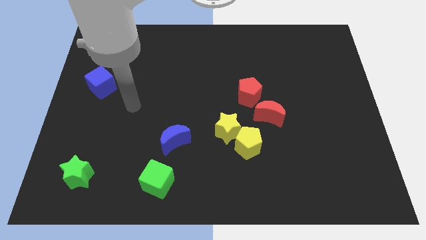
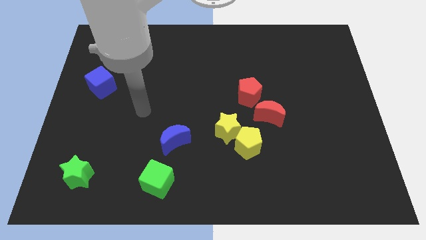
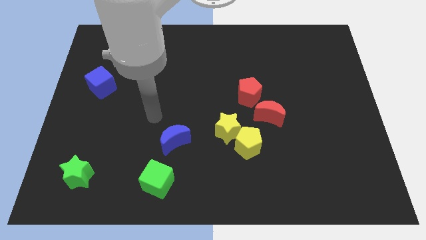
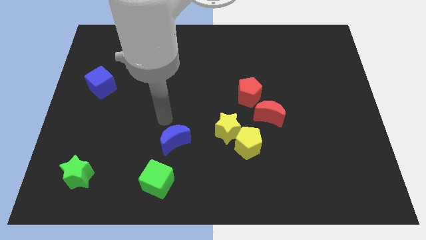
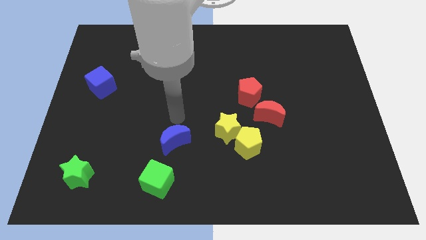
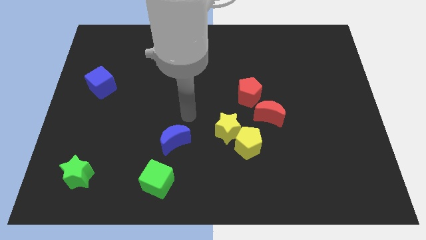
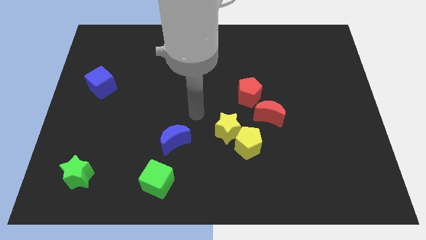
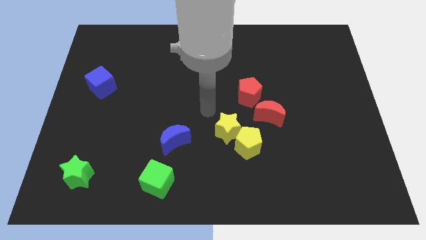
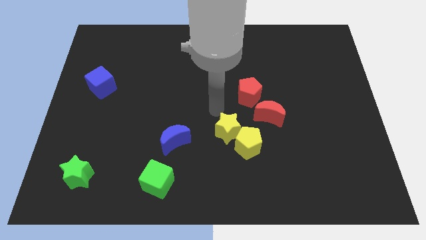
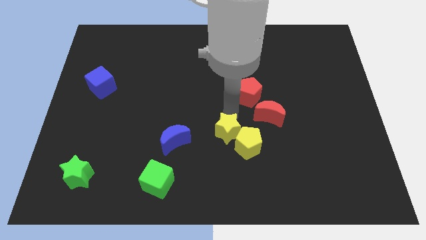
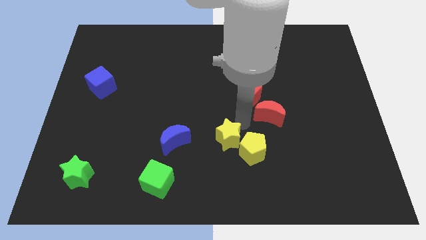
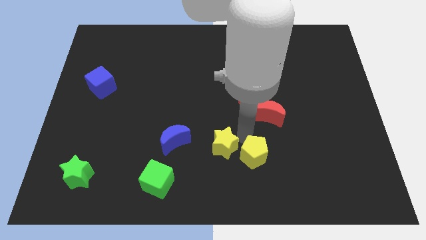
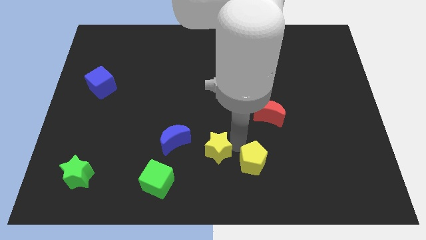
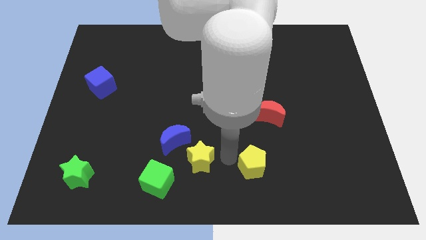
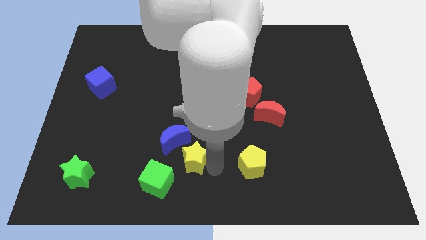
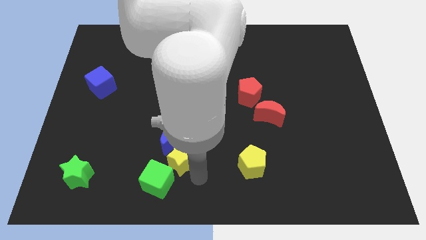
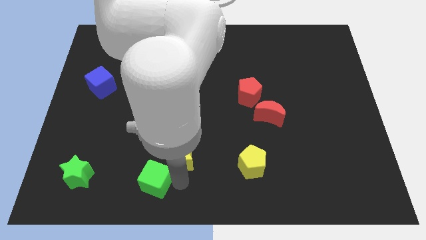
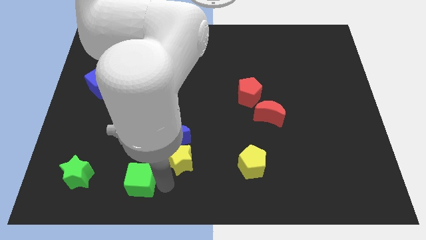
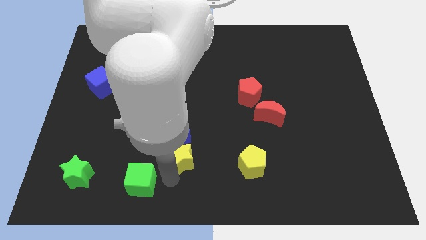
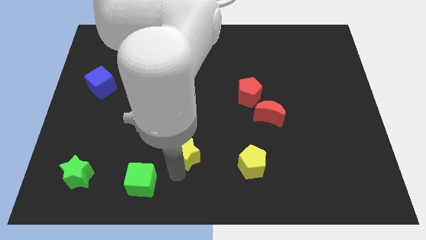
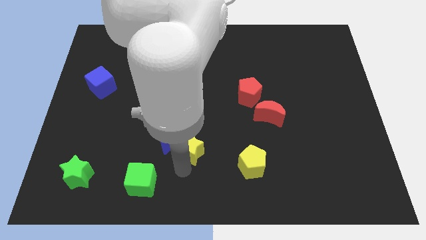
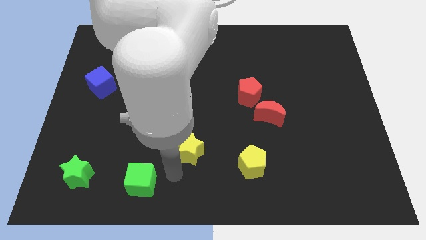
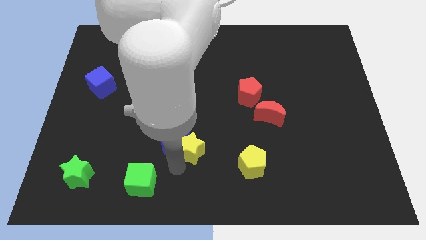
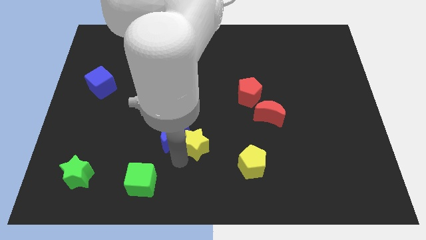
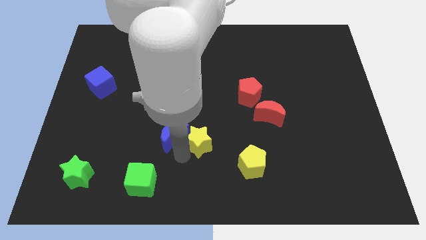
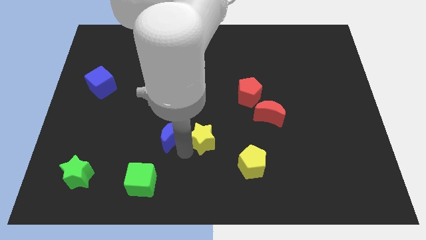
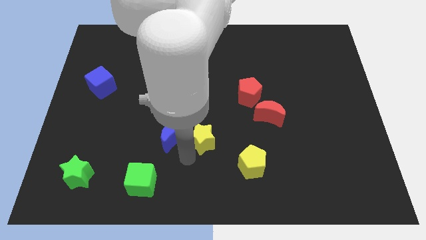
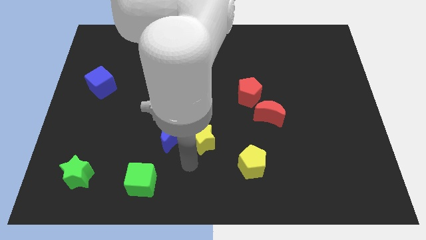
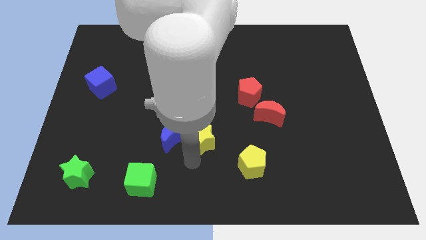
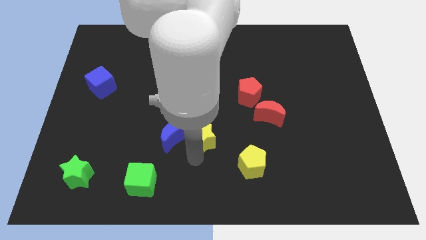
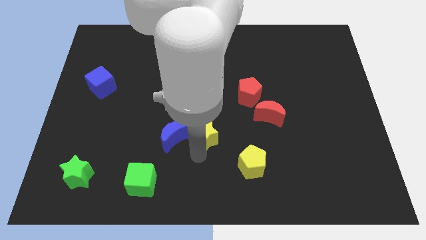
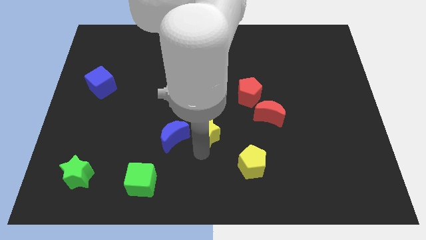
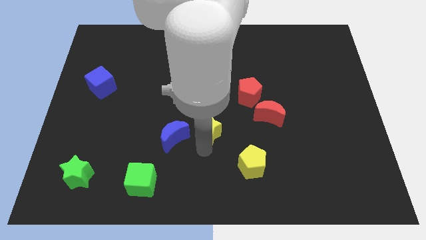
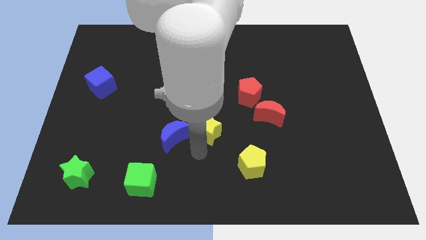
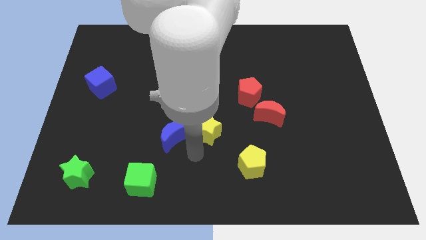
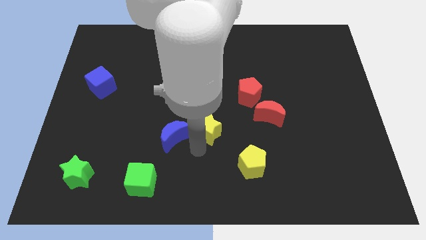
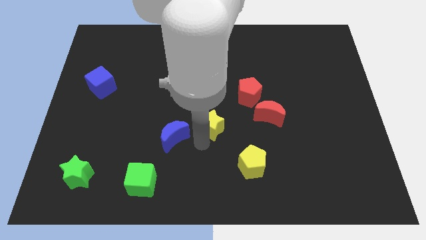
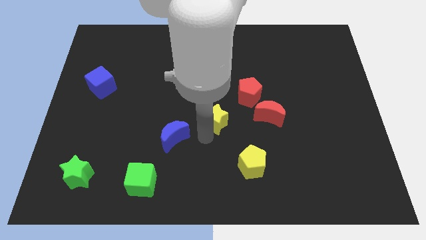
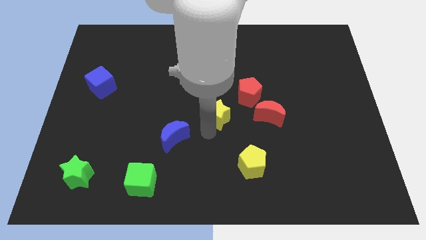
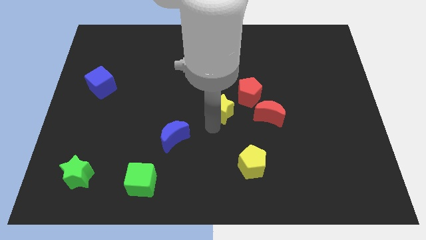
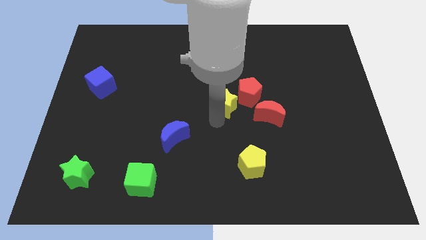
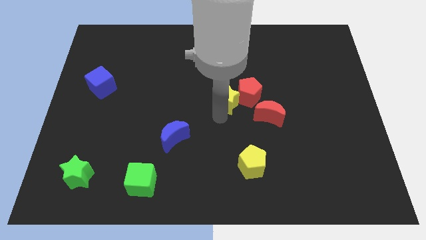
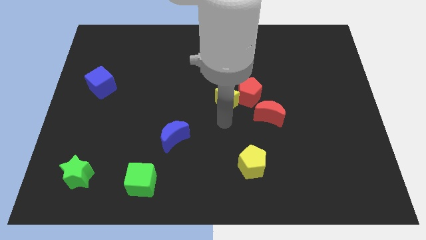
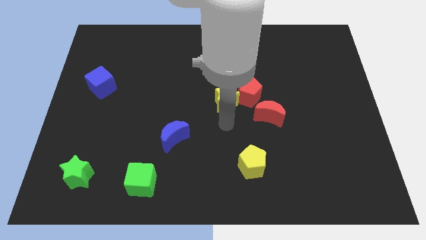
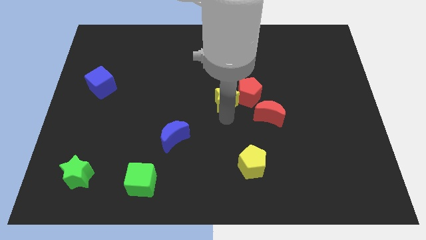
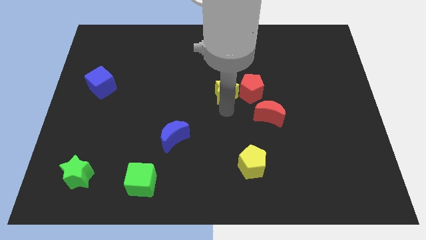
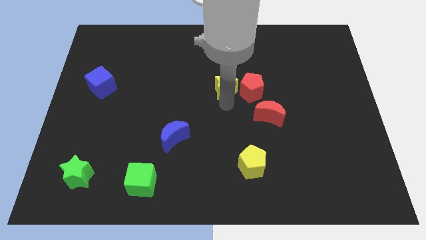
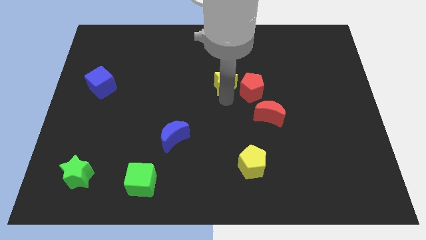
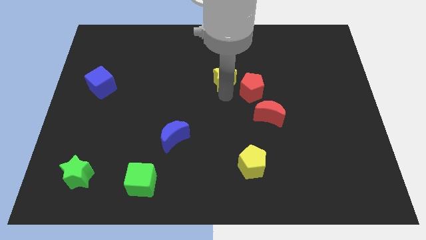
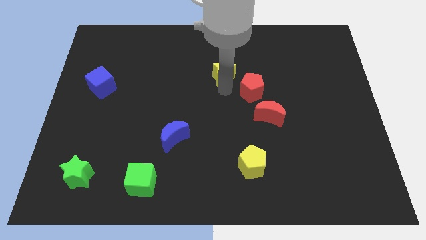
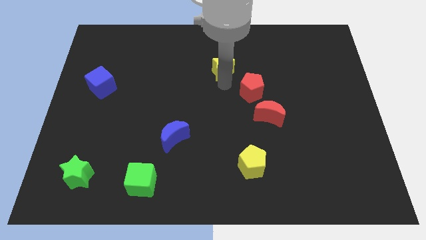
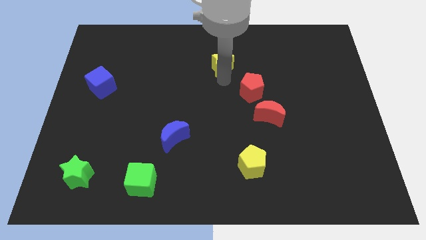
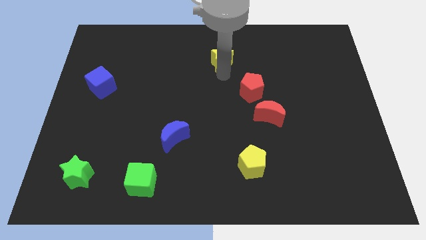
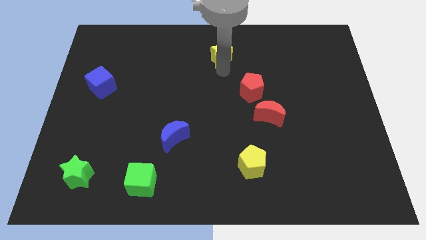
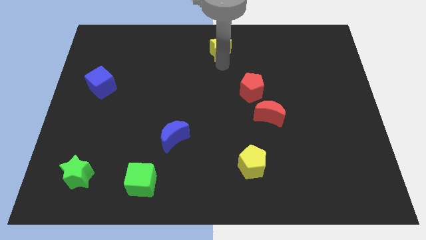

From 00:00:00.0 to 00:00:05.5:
move the yellow star to the towards your base

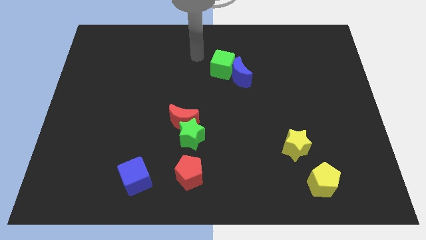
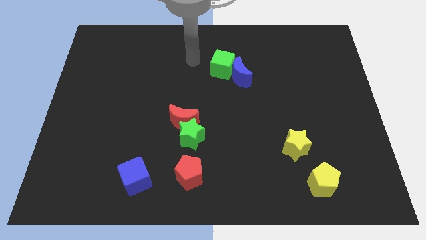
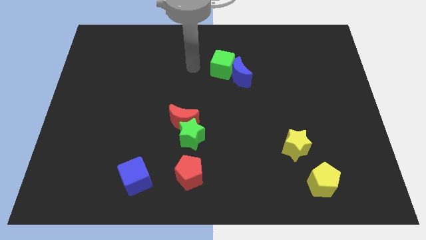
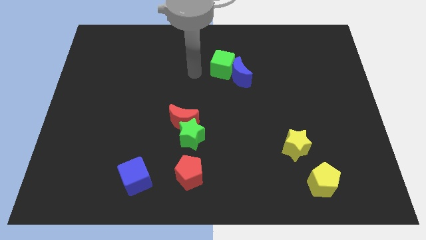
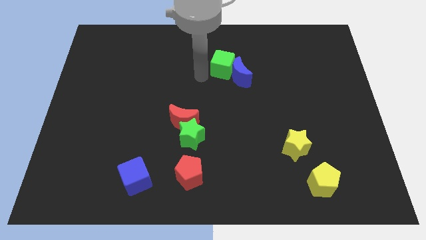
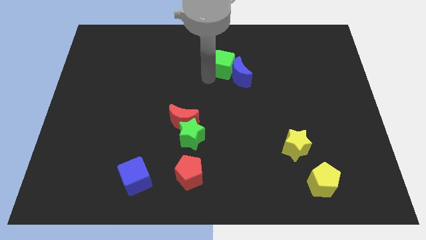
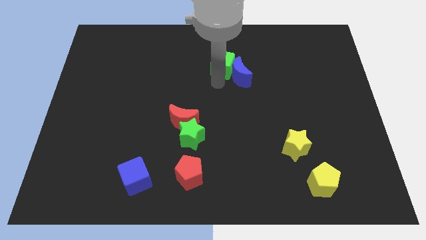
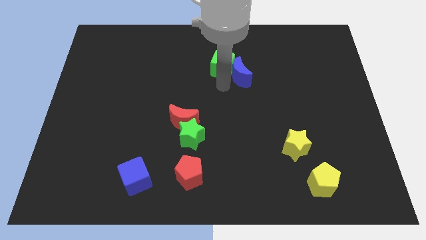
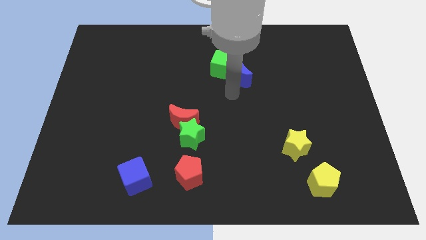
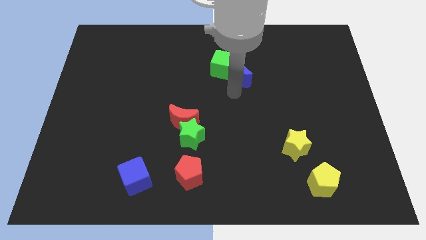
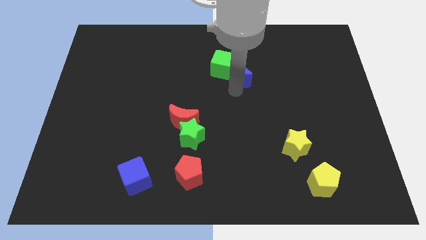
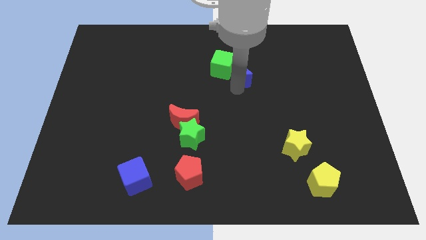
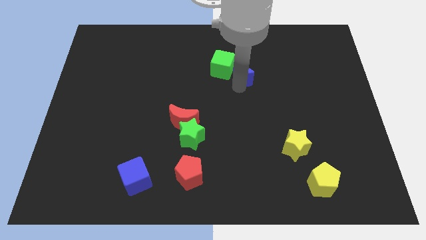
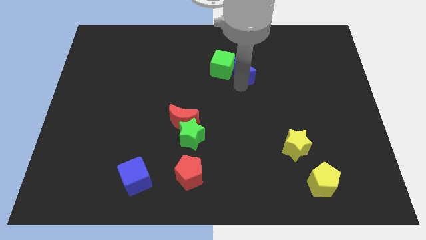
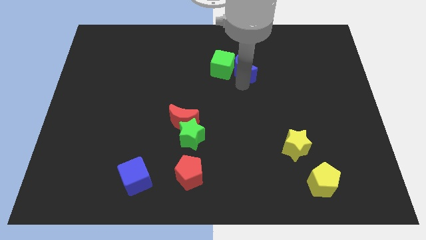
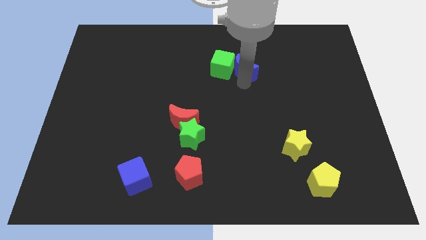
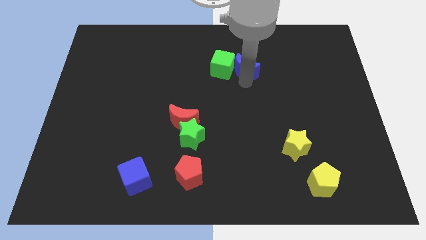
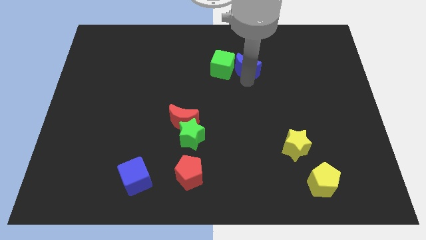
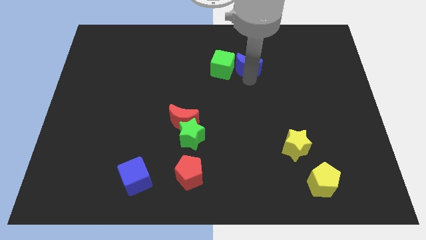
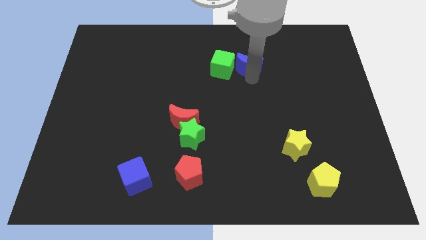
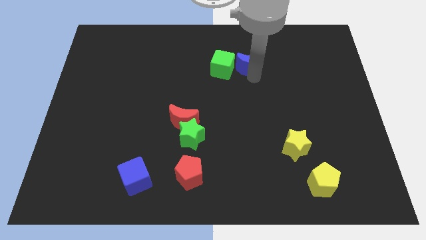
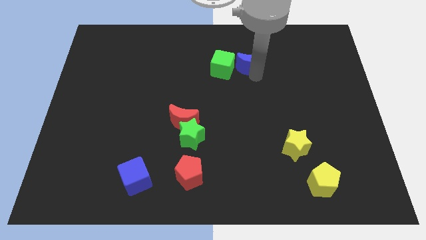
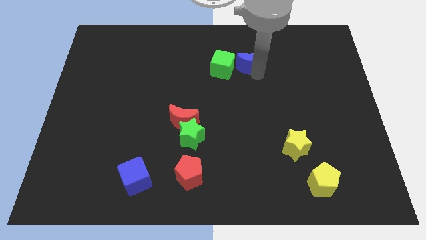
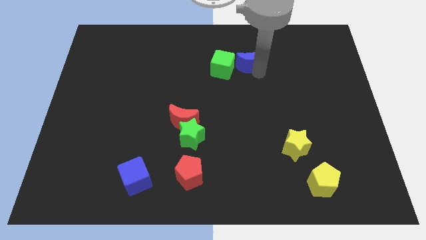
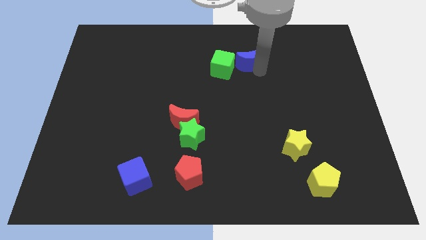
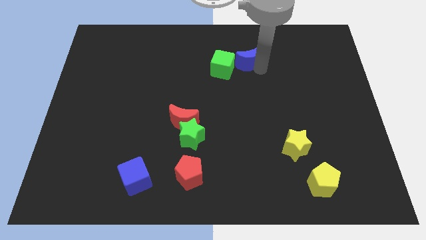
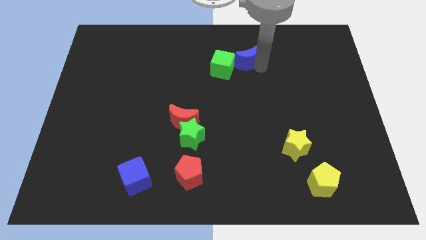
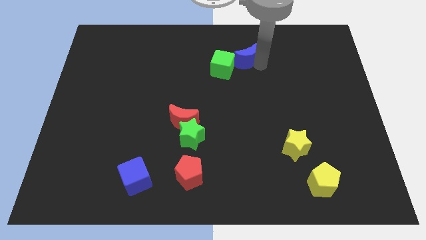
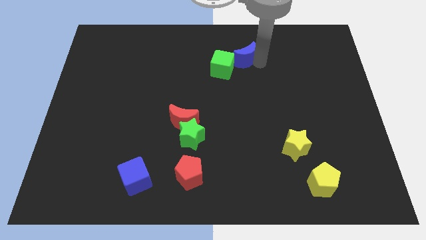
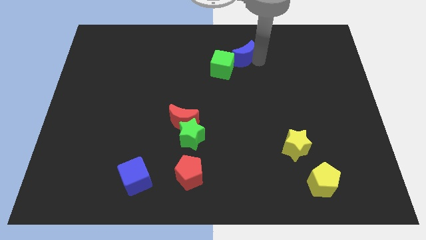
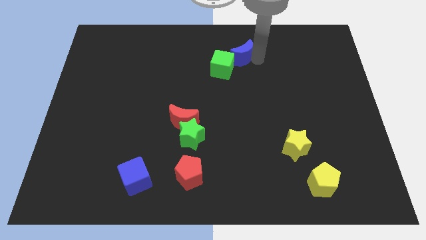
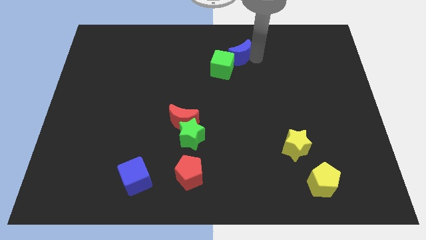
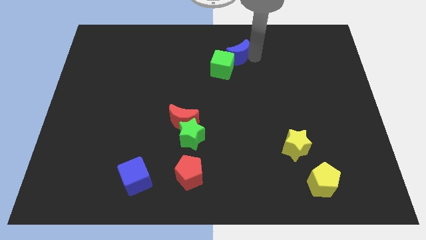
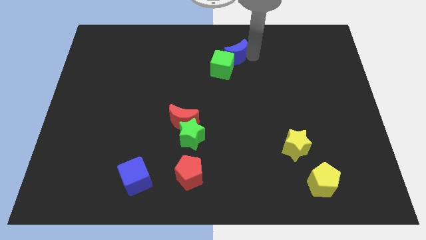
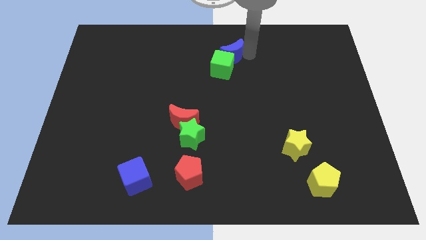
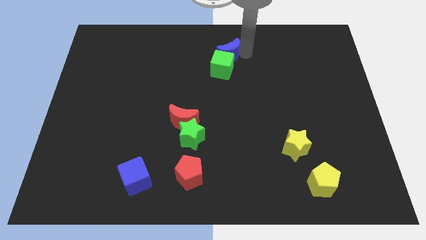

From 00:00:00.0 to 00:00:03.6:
slide the blue moon to the top
